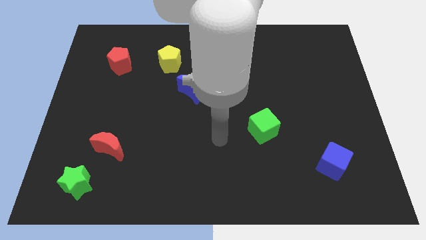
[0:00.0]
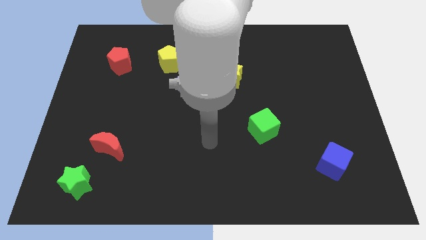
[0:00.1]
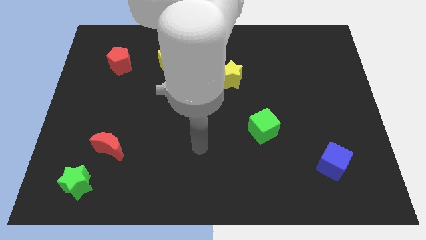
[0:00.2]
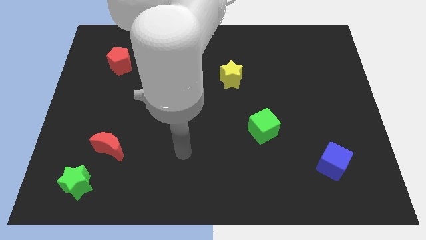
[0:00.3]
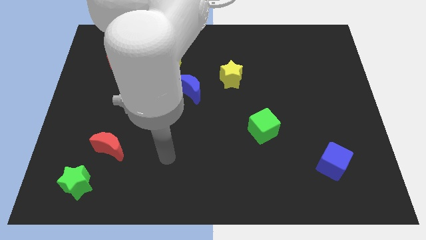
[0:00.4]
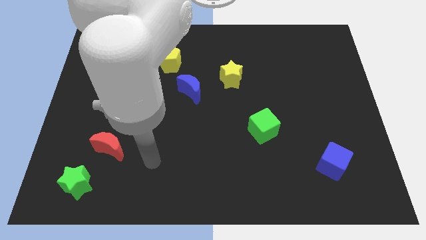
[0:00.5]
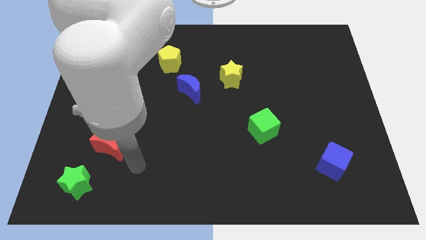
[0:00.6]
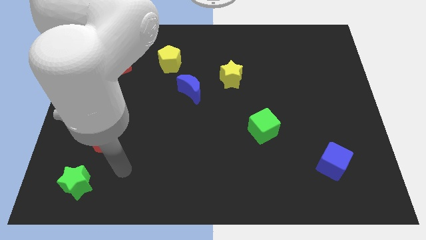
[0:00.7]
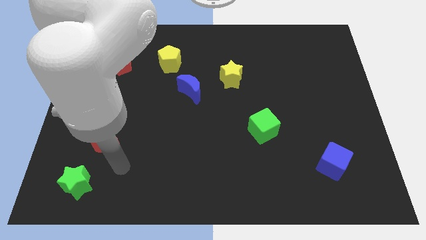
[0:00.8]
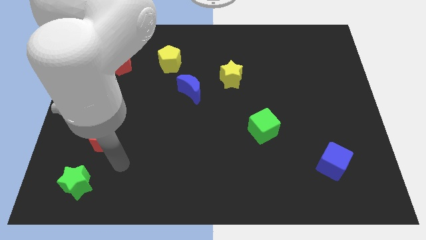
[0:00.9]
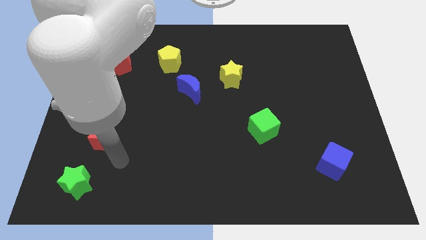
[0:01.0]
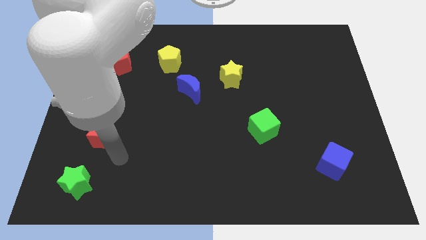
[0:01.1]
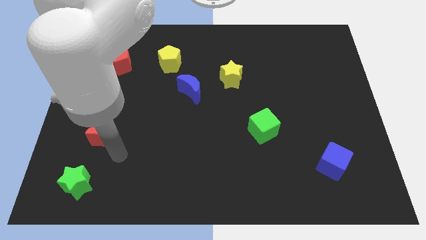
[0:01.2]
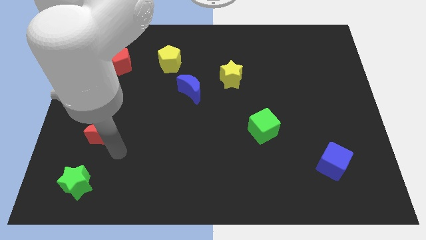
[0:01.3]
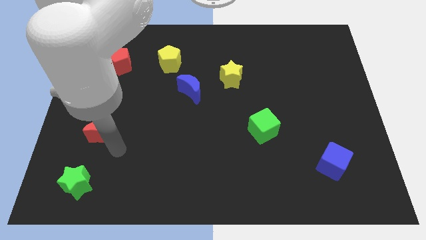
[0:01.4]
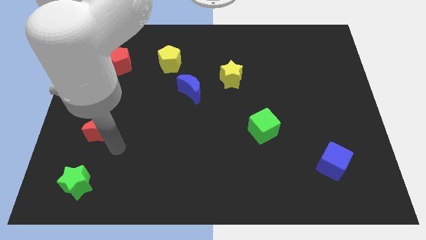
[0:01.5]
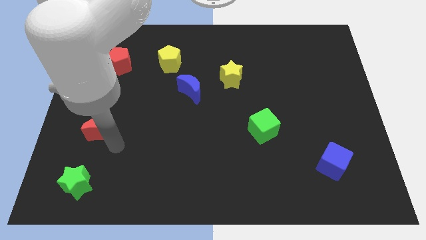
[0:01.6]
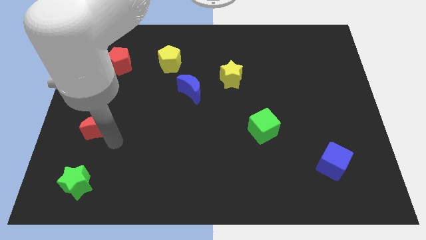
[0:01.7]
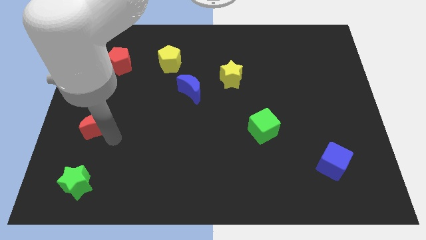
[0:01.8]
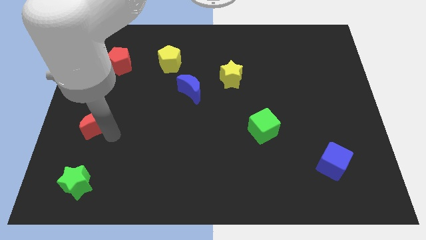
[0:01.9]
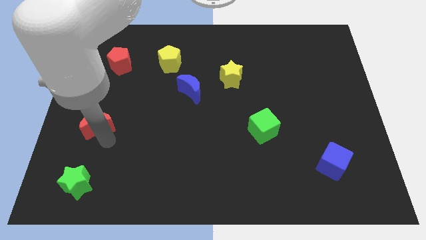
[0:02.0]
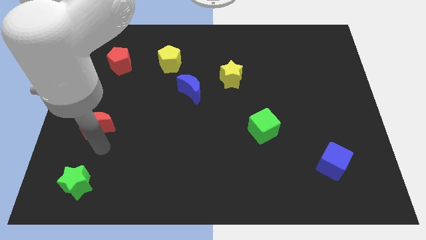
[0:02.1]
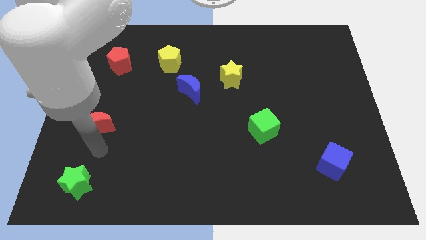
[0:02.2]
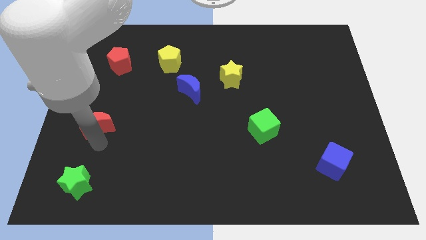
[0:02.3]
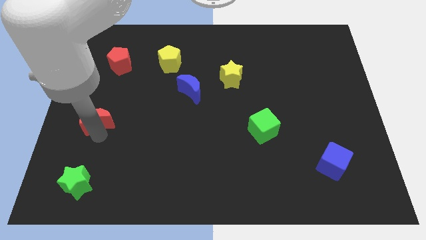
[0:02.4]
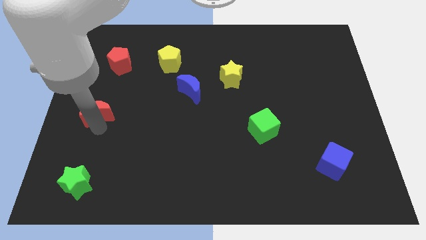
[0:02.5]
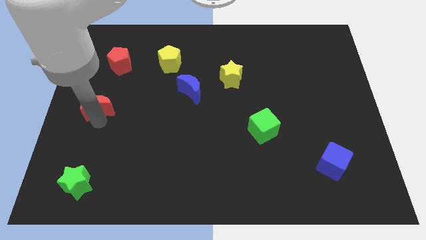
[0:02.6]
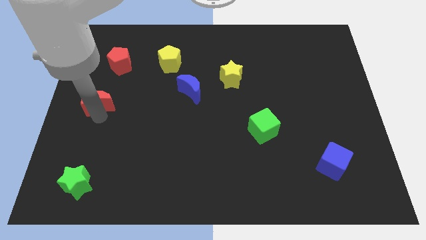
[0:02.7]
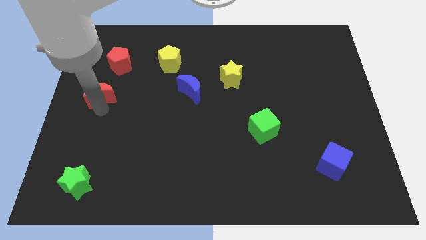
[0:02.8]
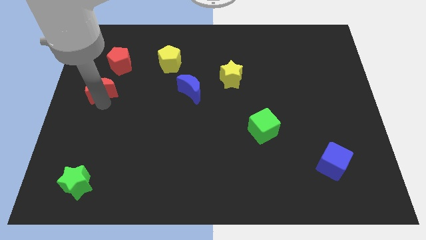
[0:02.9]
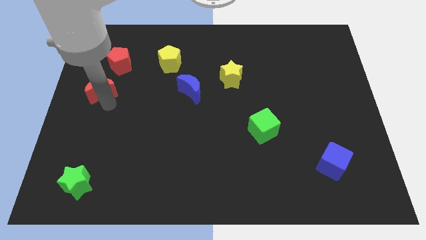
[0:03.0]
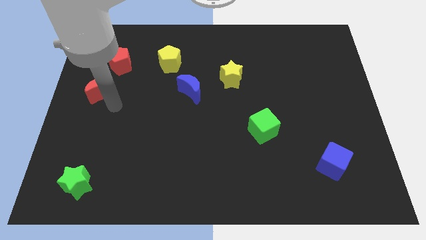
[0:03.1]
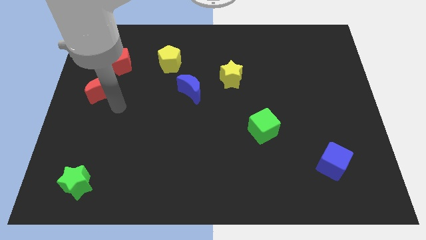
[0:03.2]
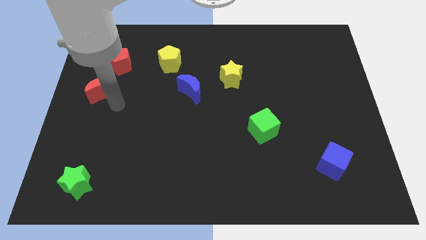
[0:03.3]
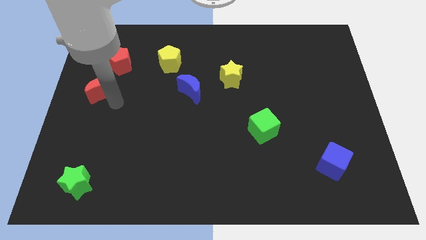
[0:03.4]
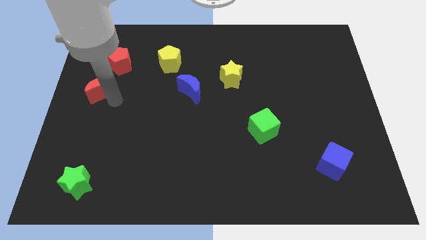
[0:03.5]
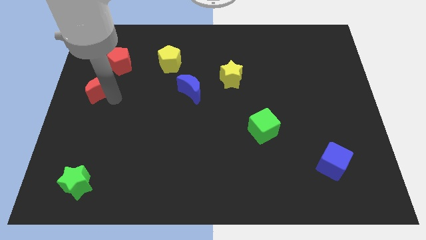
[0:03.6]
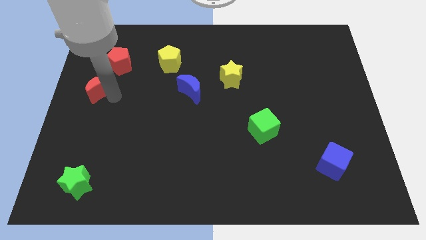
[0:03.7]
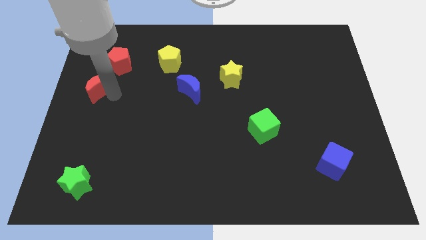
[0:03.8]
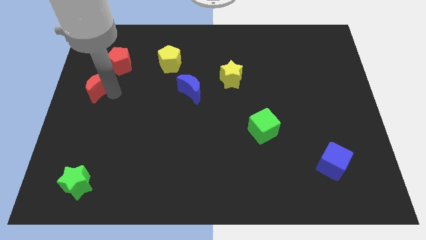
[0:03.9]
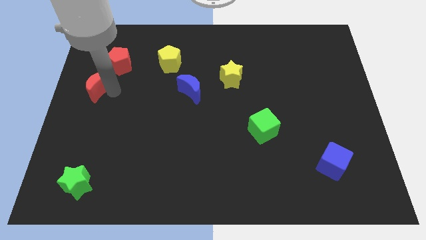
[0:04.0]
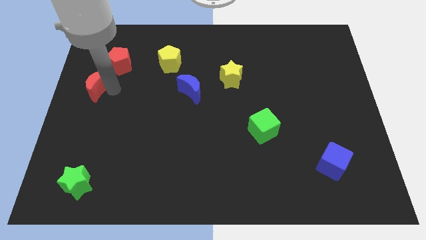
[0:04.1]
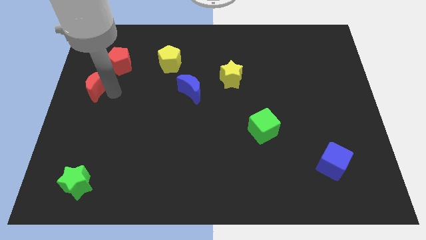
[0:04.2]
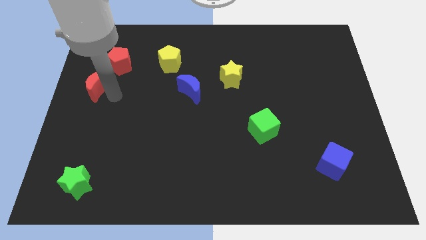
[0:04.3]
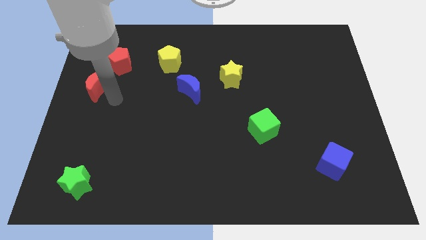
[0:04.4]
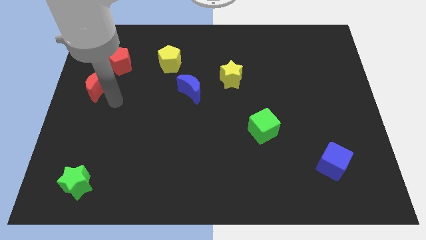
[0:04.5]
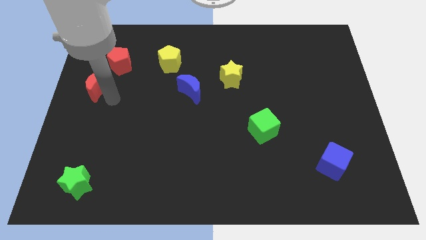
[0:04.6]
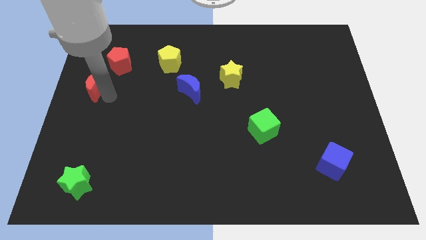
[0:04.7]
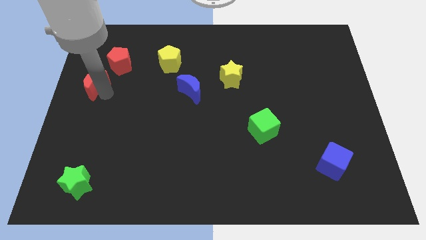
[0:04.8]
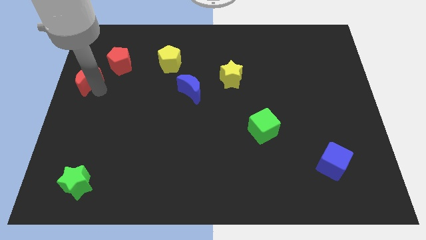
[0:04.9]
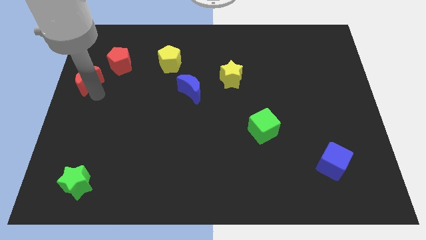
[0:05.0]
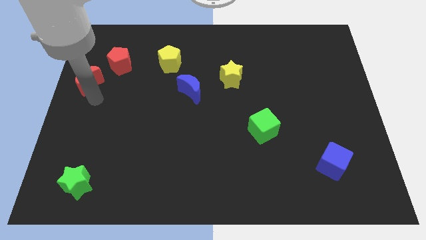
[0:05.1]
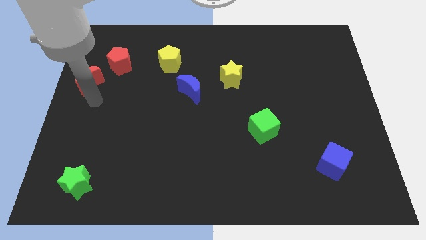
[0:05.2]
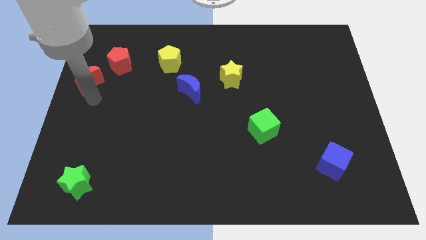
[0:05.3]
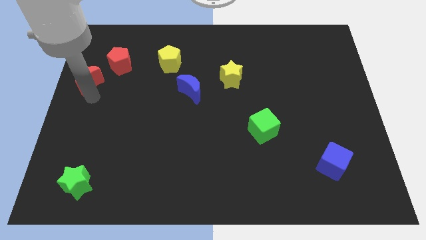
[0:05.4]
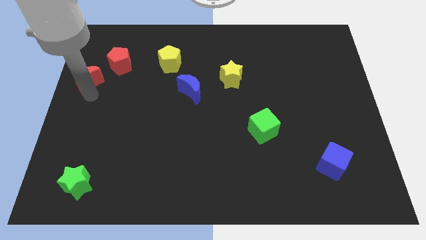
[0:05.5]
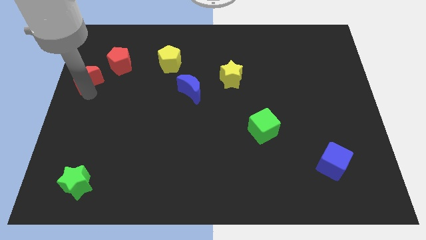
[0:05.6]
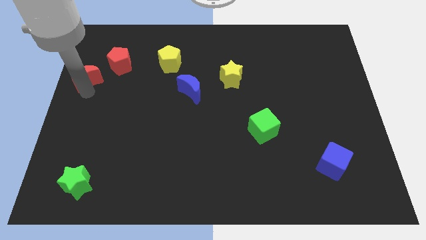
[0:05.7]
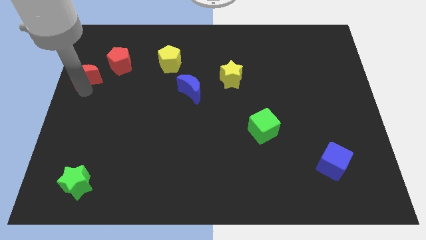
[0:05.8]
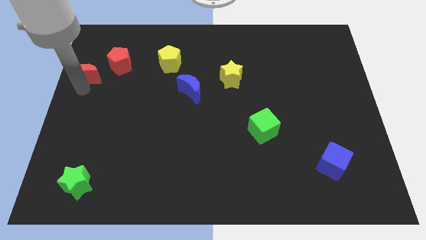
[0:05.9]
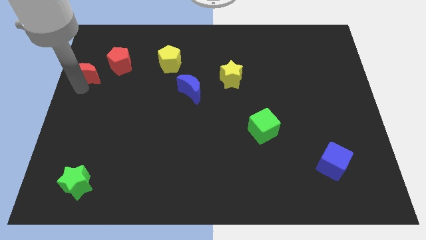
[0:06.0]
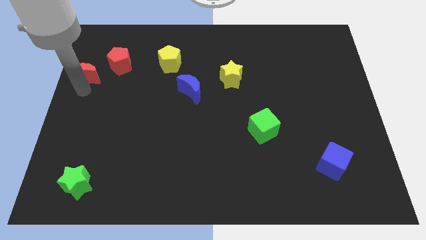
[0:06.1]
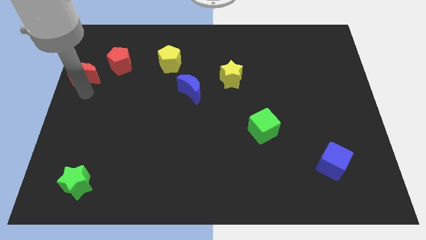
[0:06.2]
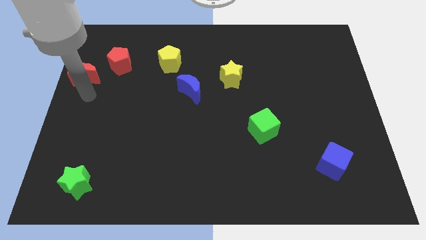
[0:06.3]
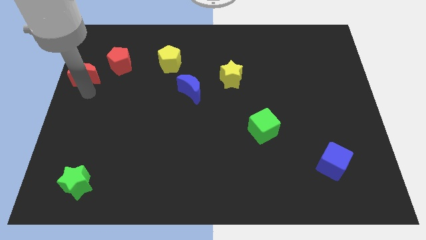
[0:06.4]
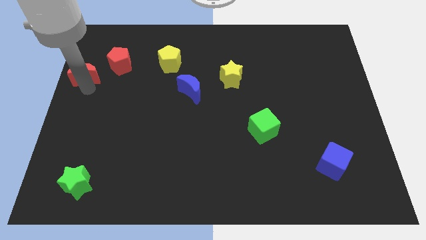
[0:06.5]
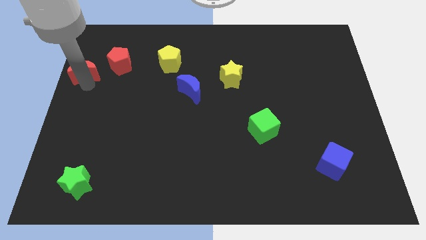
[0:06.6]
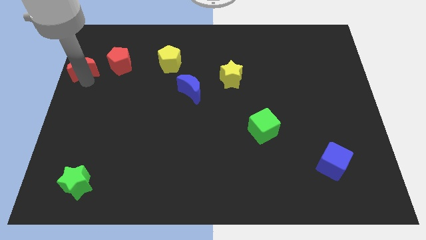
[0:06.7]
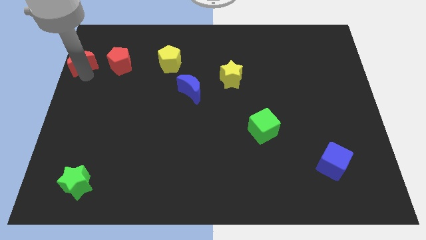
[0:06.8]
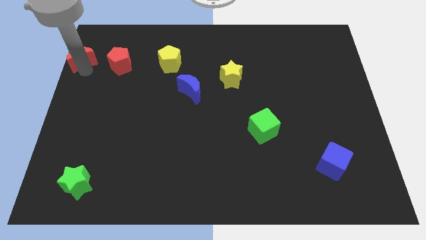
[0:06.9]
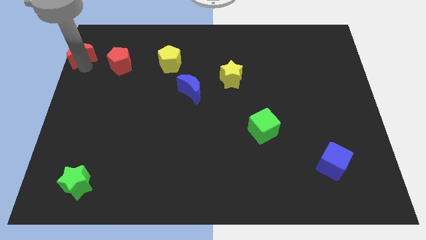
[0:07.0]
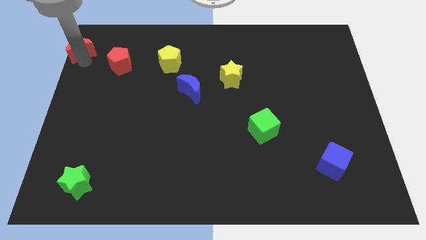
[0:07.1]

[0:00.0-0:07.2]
slide the red moon to the top left corner
